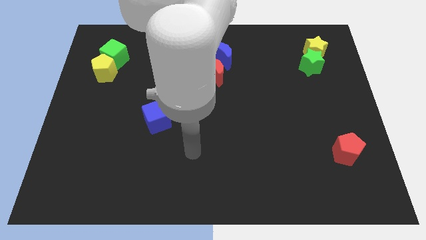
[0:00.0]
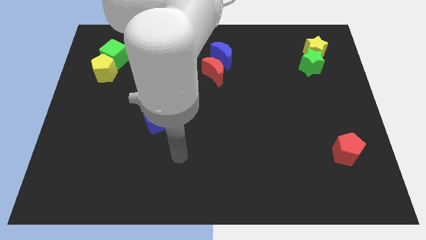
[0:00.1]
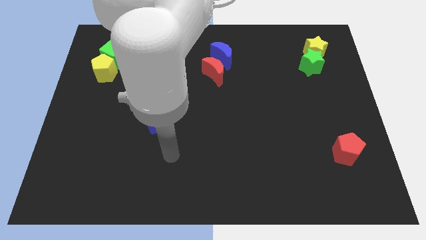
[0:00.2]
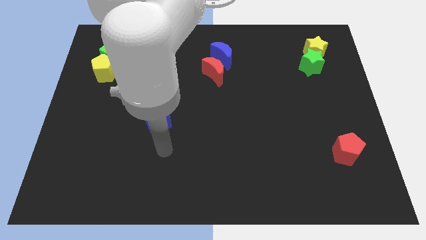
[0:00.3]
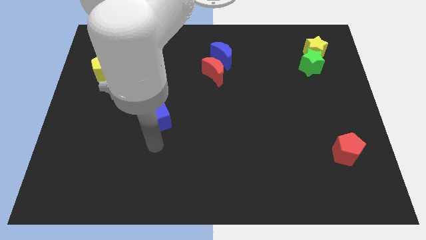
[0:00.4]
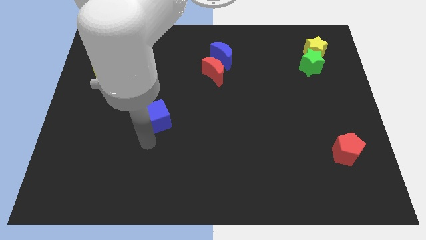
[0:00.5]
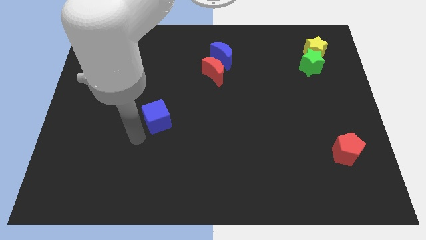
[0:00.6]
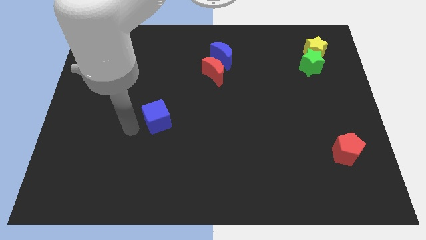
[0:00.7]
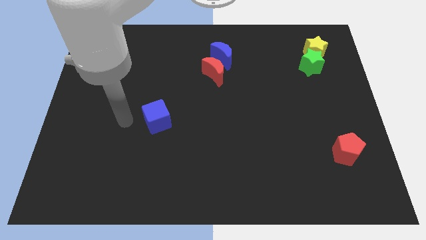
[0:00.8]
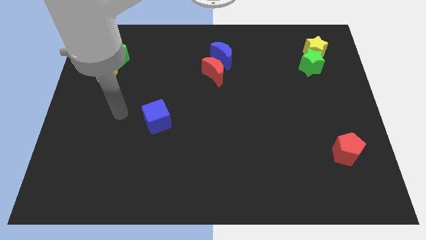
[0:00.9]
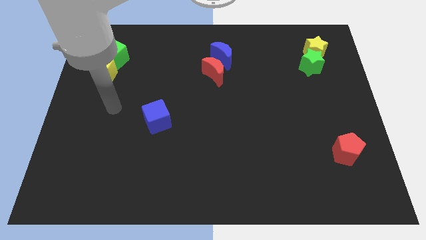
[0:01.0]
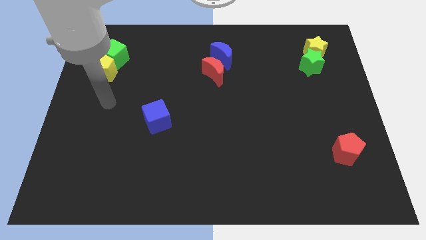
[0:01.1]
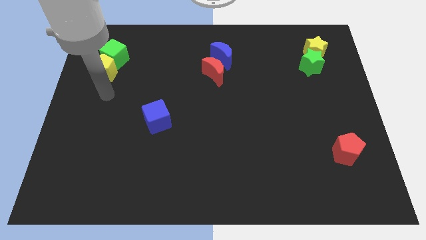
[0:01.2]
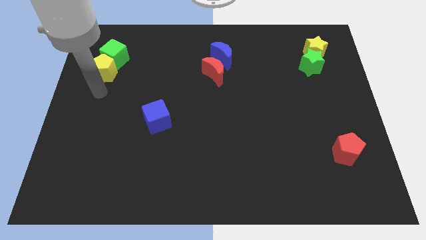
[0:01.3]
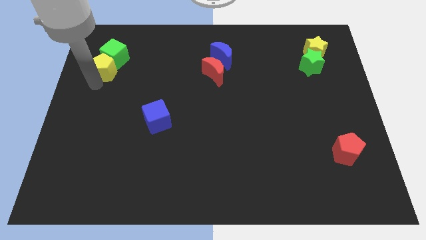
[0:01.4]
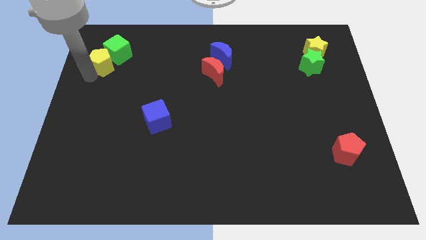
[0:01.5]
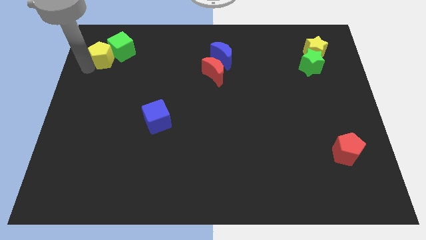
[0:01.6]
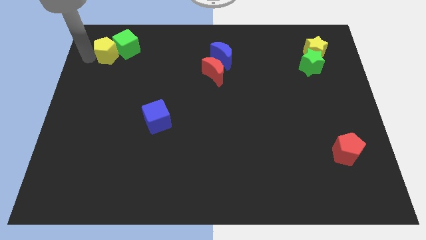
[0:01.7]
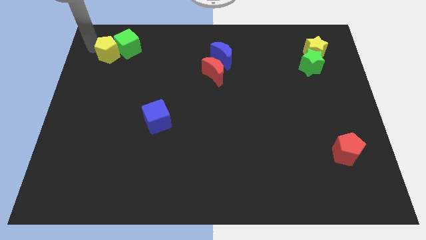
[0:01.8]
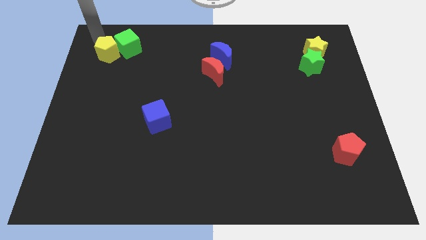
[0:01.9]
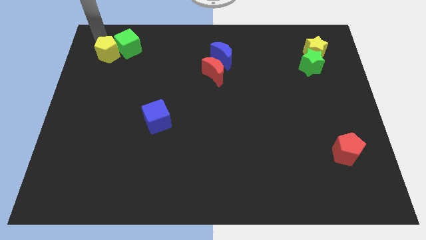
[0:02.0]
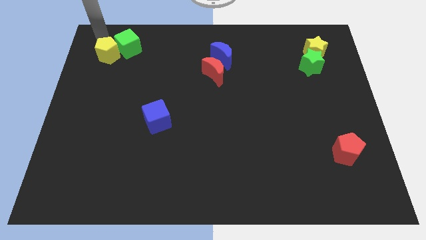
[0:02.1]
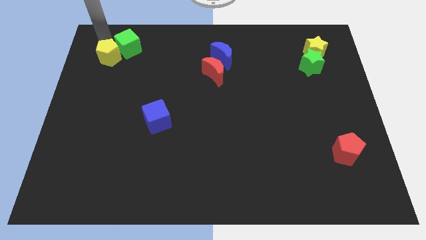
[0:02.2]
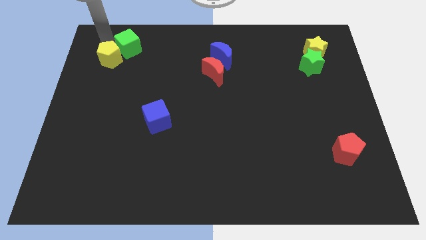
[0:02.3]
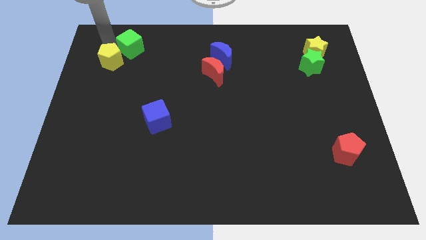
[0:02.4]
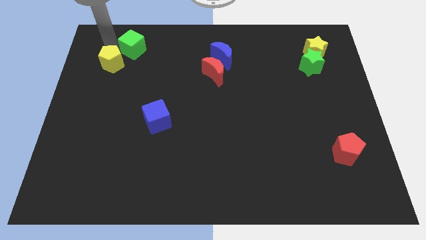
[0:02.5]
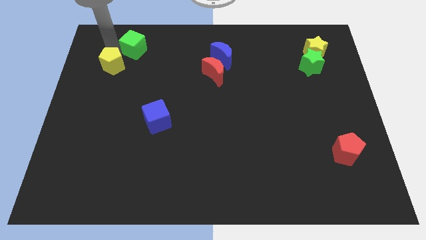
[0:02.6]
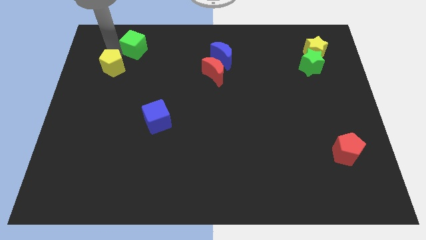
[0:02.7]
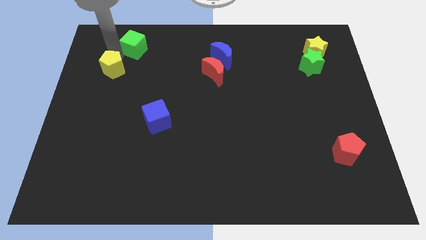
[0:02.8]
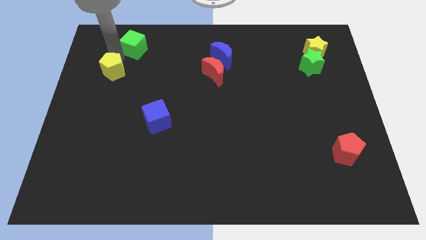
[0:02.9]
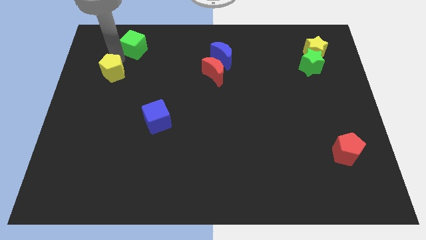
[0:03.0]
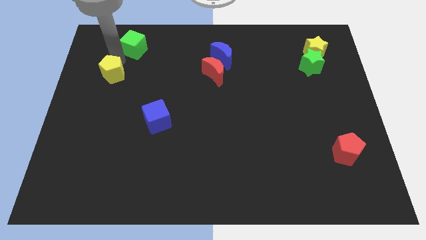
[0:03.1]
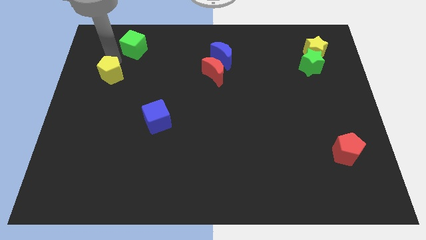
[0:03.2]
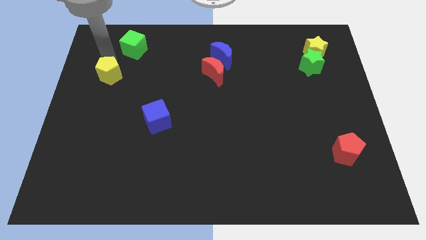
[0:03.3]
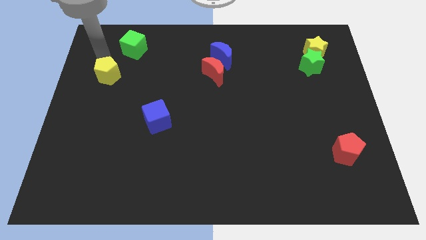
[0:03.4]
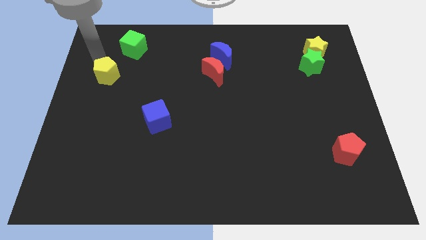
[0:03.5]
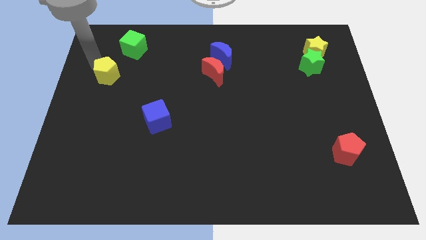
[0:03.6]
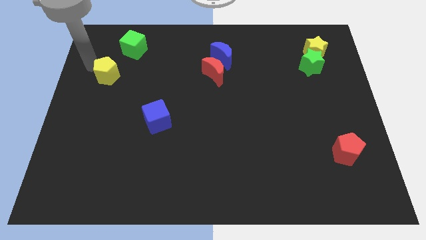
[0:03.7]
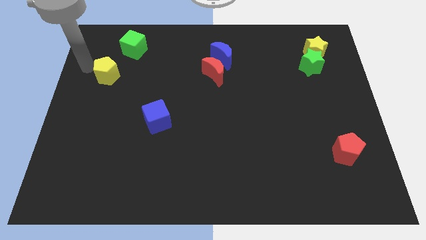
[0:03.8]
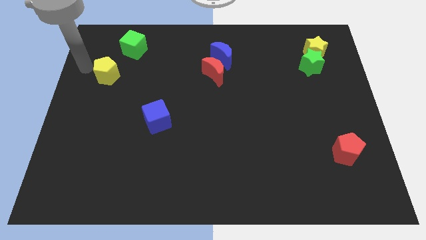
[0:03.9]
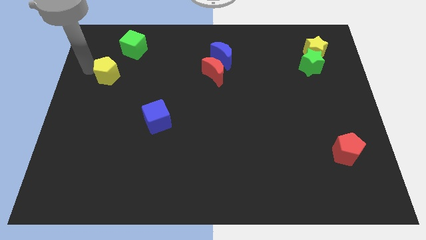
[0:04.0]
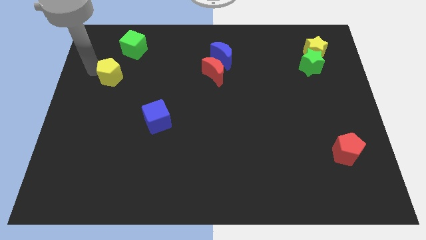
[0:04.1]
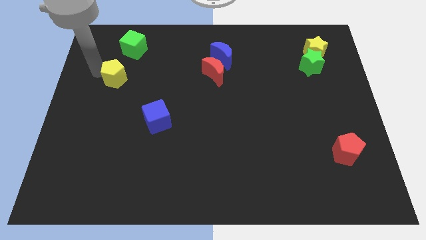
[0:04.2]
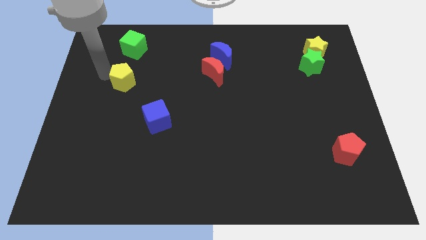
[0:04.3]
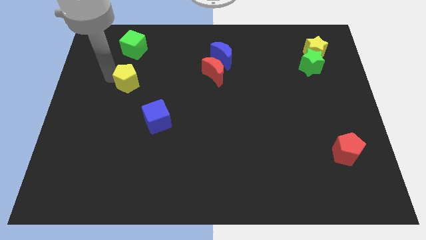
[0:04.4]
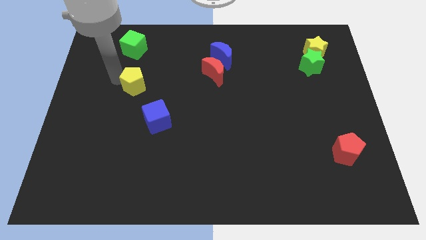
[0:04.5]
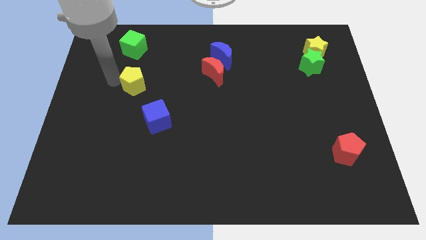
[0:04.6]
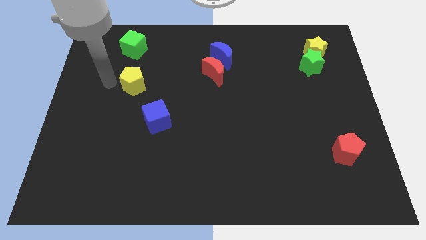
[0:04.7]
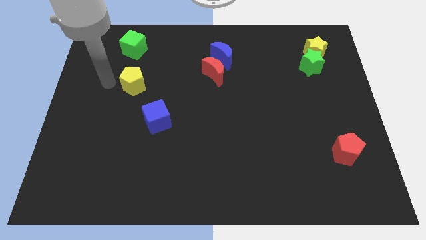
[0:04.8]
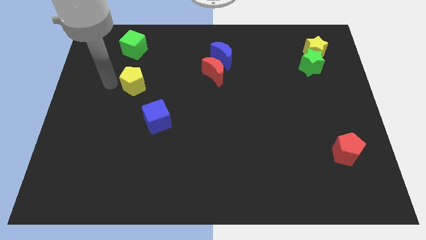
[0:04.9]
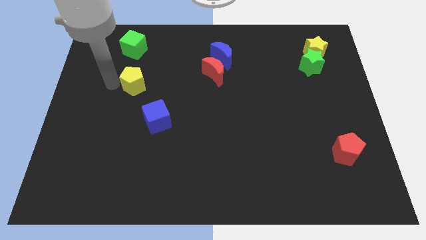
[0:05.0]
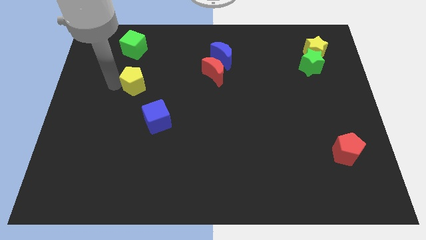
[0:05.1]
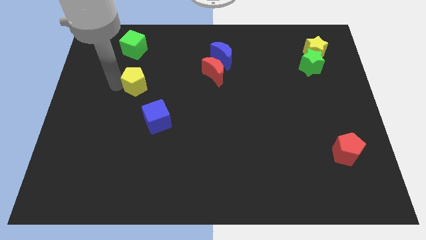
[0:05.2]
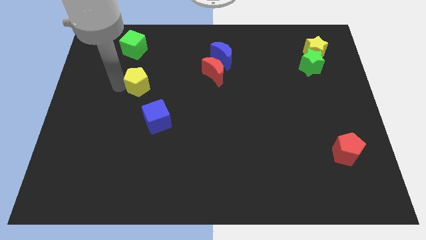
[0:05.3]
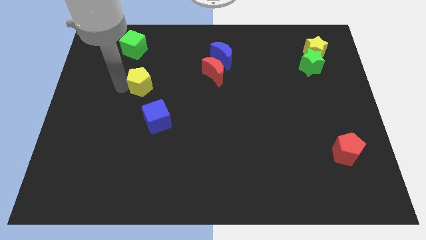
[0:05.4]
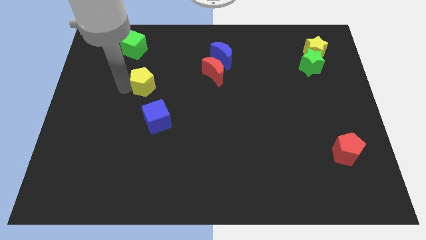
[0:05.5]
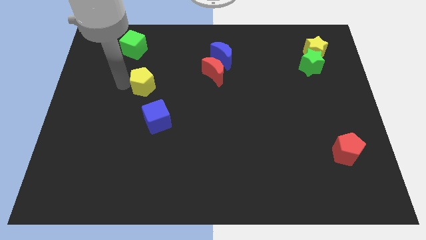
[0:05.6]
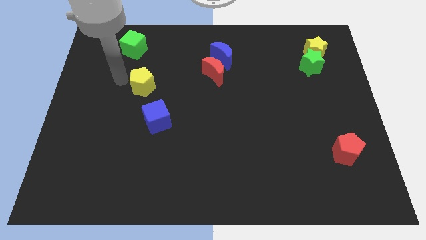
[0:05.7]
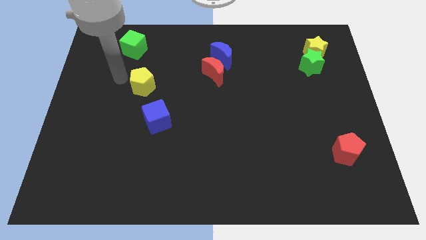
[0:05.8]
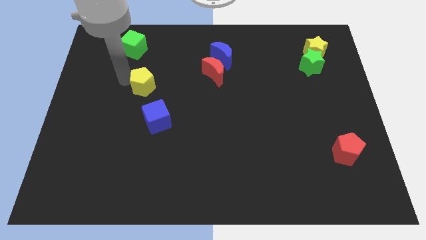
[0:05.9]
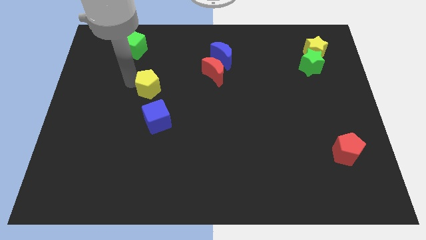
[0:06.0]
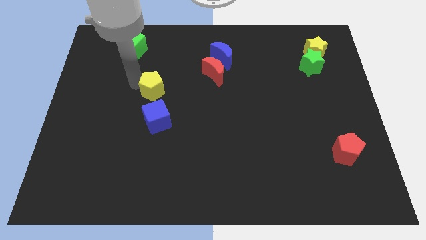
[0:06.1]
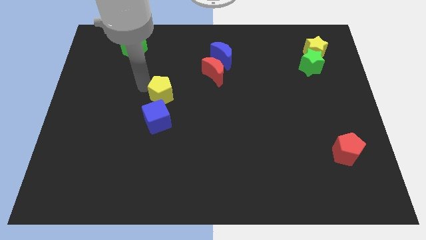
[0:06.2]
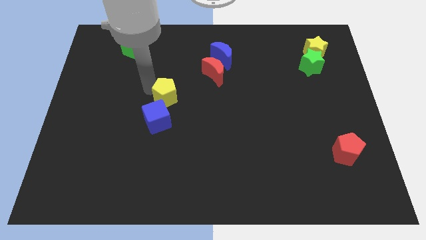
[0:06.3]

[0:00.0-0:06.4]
slide the yellow pentagon to the top right side of the blue cube

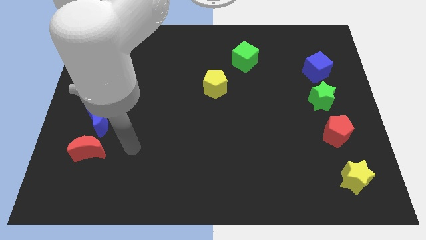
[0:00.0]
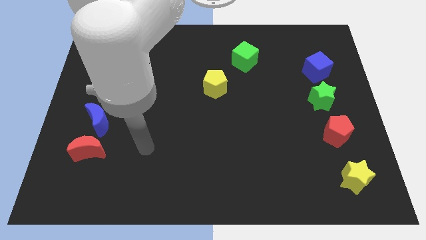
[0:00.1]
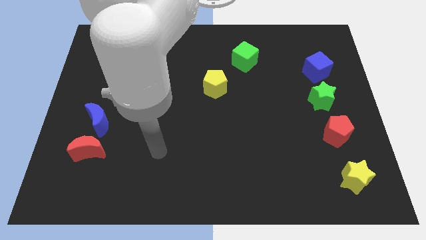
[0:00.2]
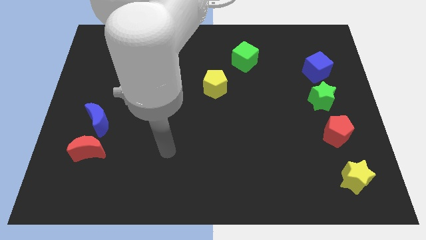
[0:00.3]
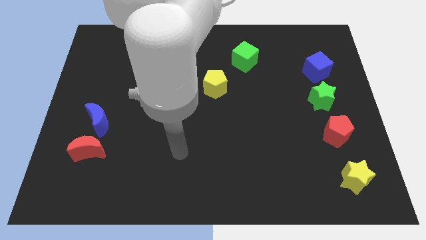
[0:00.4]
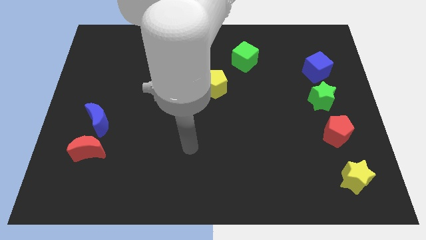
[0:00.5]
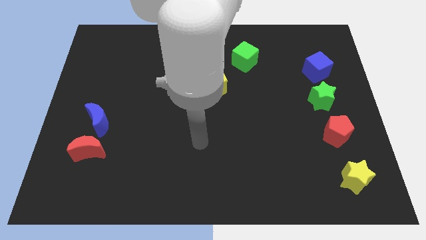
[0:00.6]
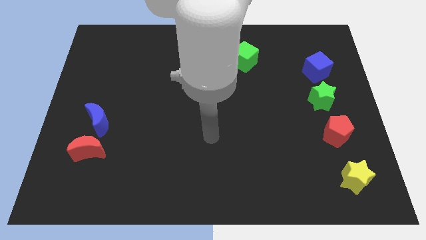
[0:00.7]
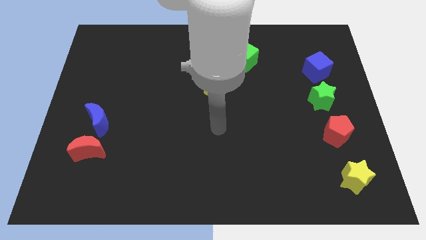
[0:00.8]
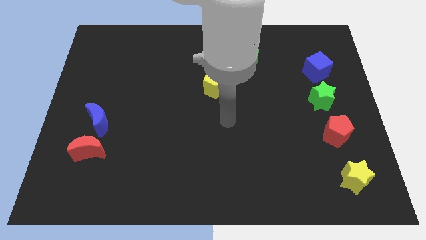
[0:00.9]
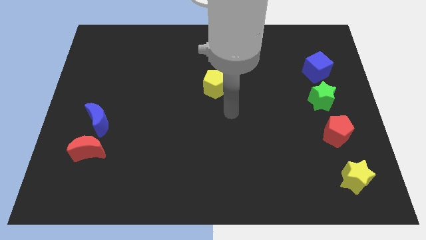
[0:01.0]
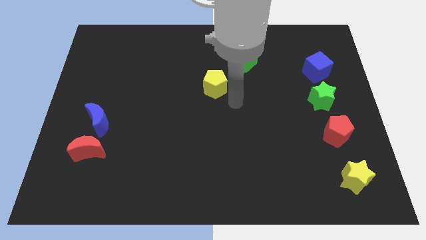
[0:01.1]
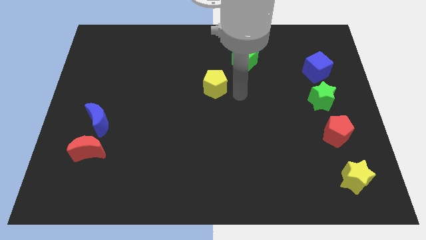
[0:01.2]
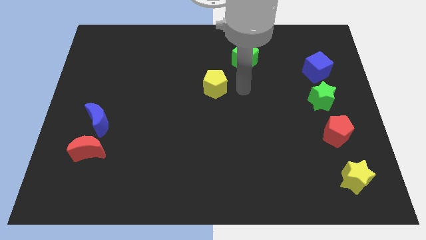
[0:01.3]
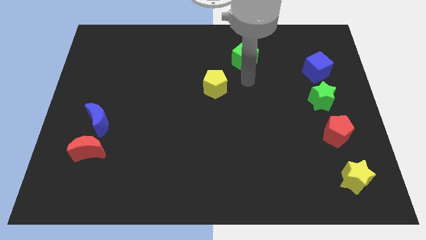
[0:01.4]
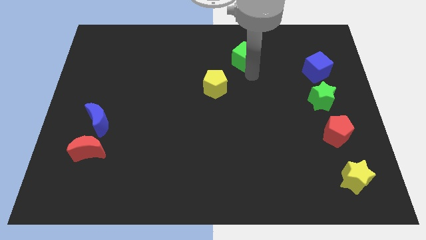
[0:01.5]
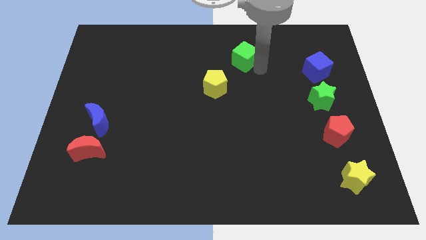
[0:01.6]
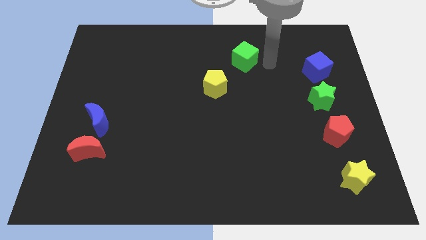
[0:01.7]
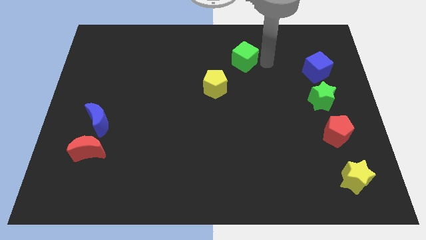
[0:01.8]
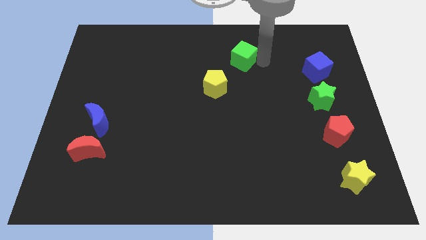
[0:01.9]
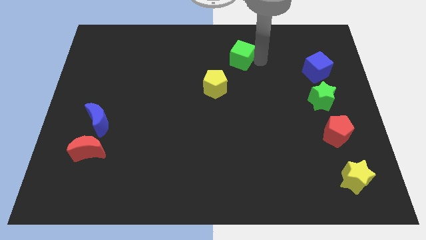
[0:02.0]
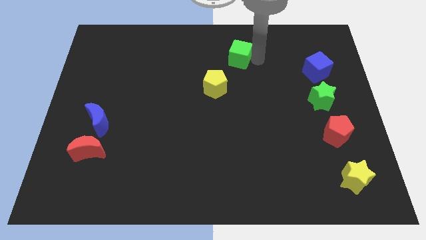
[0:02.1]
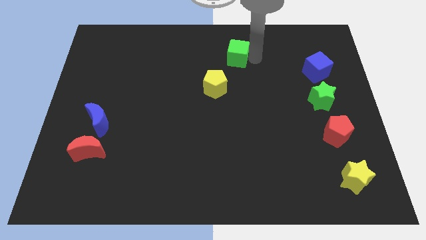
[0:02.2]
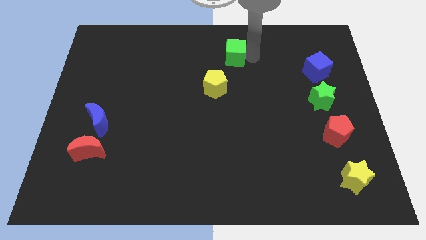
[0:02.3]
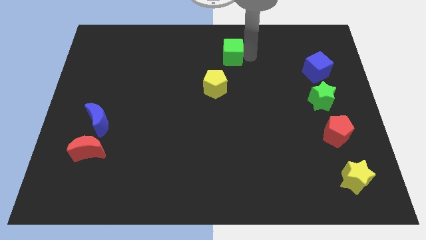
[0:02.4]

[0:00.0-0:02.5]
push the green cube to the top of the yellow pentagon
